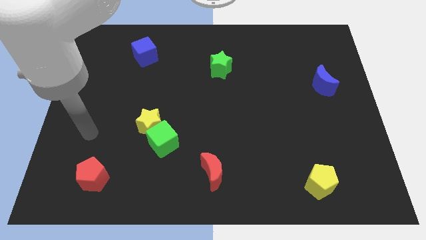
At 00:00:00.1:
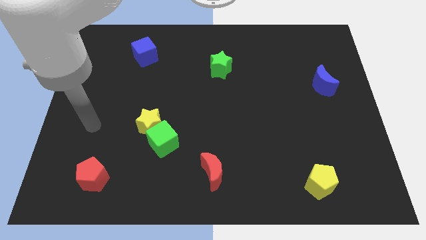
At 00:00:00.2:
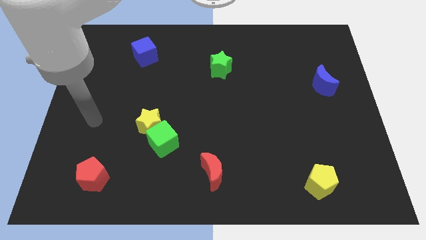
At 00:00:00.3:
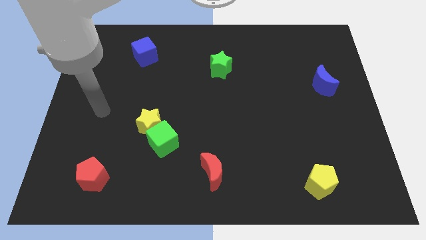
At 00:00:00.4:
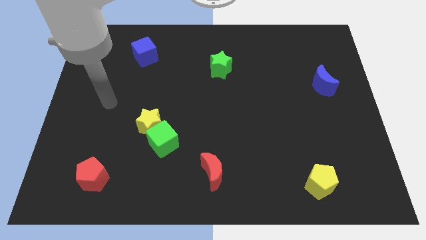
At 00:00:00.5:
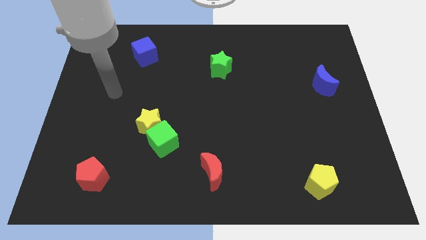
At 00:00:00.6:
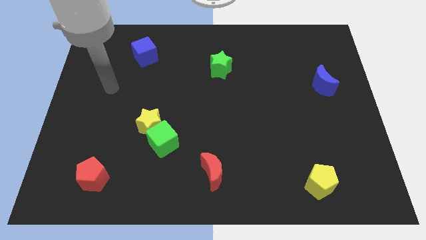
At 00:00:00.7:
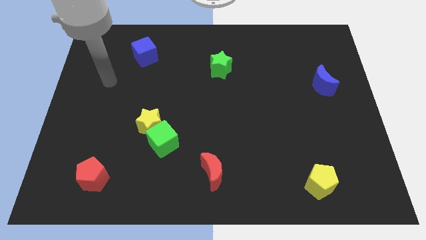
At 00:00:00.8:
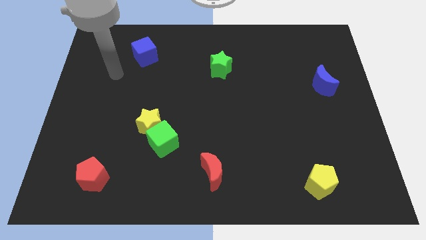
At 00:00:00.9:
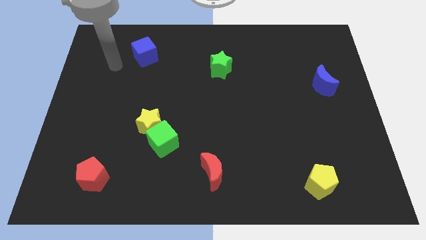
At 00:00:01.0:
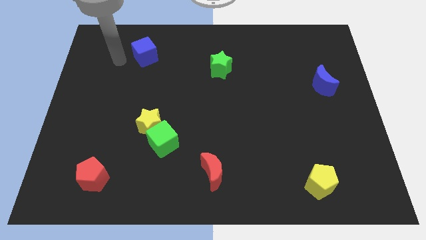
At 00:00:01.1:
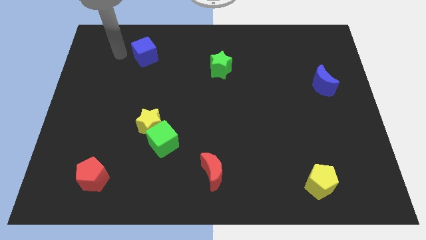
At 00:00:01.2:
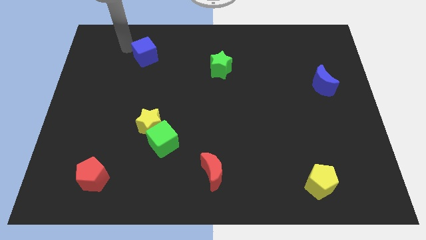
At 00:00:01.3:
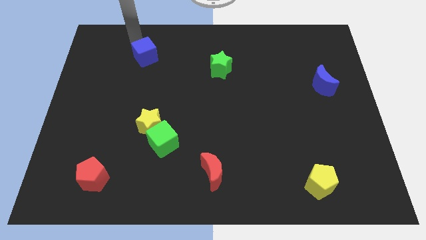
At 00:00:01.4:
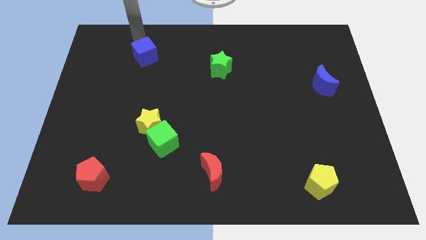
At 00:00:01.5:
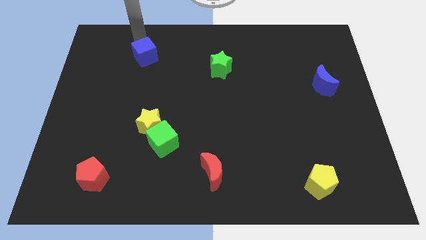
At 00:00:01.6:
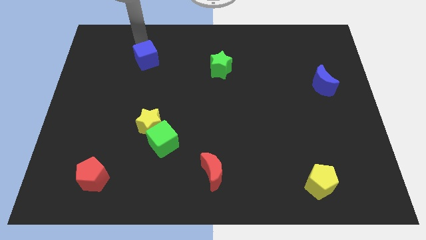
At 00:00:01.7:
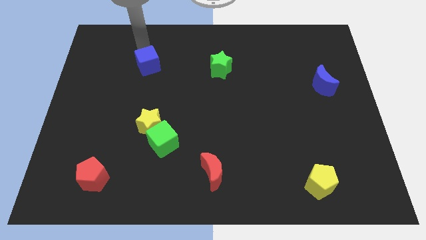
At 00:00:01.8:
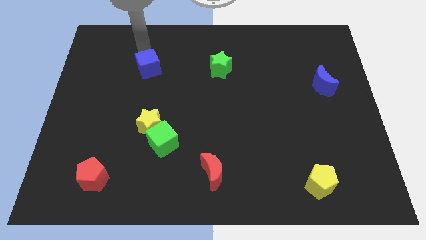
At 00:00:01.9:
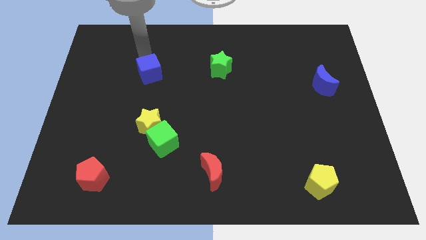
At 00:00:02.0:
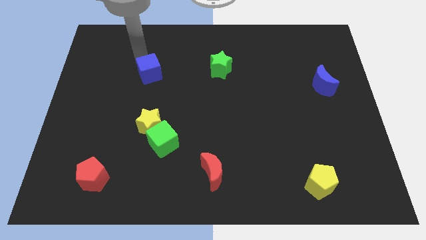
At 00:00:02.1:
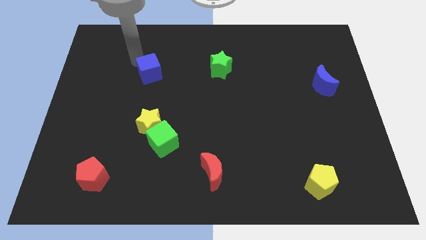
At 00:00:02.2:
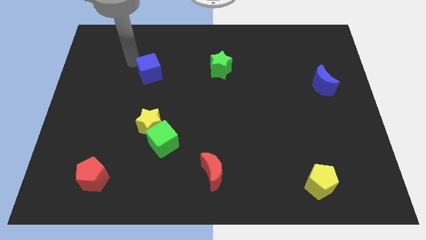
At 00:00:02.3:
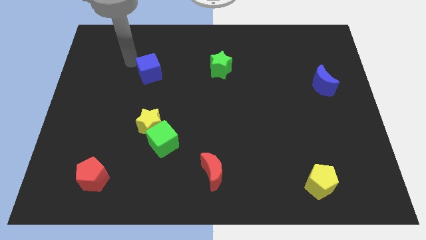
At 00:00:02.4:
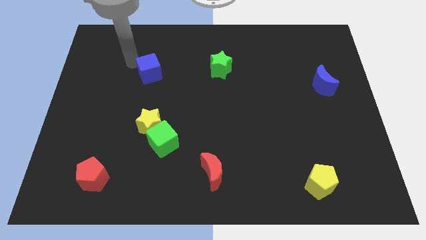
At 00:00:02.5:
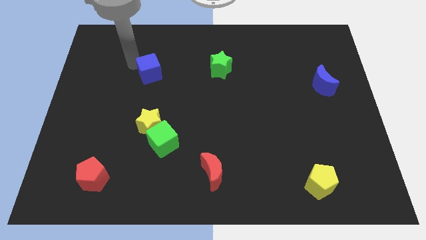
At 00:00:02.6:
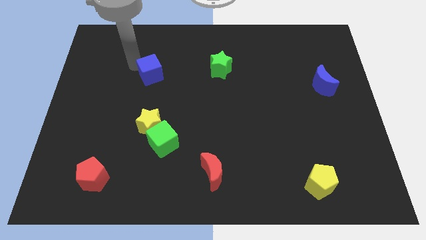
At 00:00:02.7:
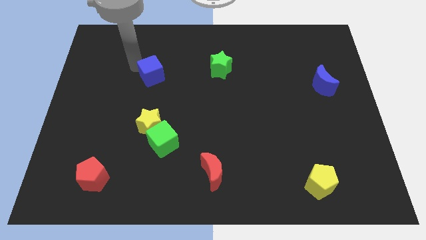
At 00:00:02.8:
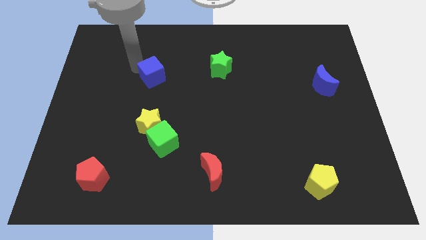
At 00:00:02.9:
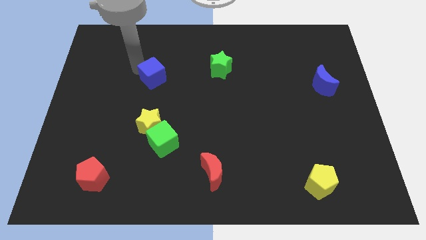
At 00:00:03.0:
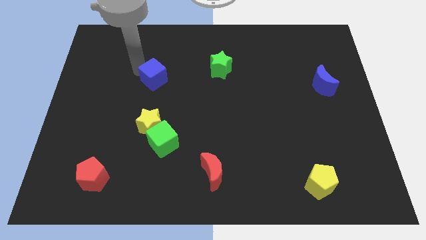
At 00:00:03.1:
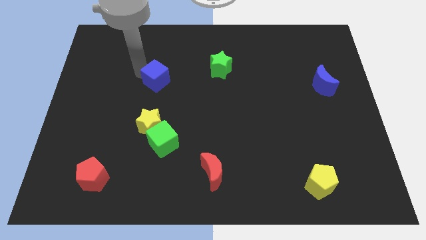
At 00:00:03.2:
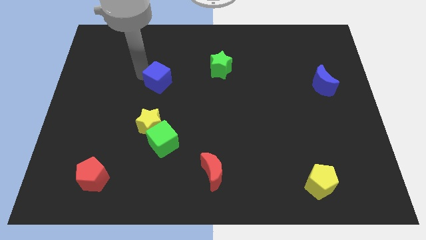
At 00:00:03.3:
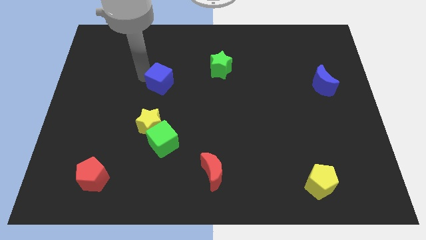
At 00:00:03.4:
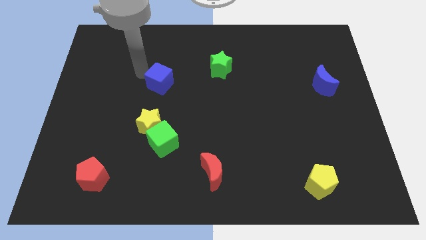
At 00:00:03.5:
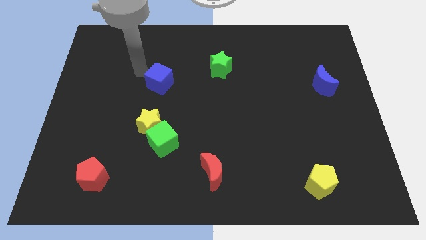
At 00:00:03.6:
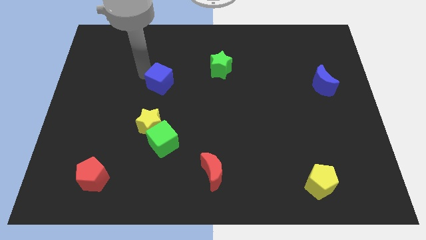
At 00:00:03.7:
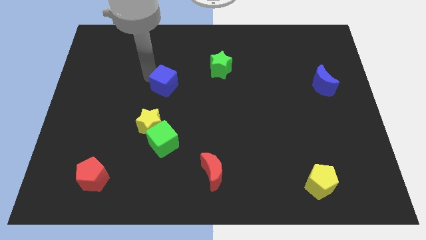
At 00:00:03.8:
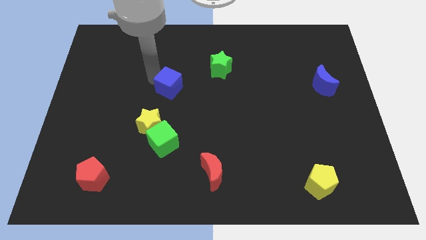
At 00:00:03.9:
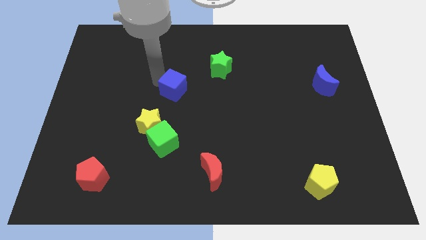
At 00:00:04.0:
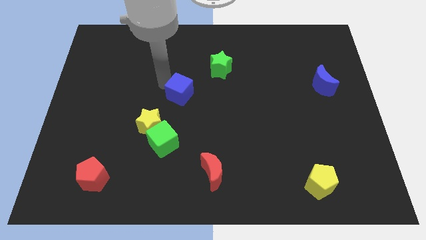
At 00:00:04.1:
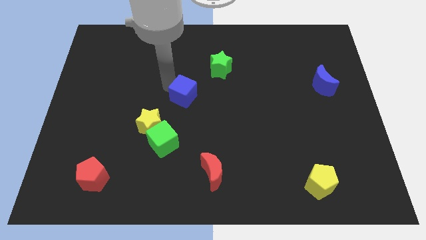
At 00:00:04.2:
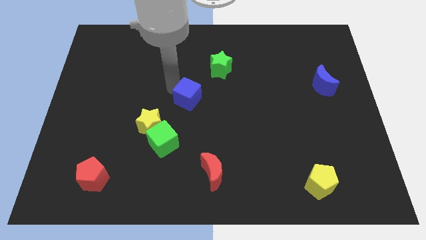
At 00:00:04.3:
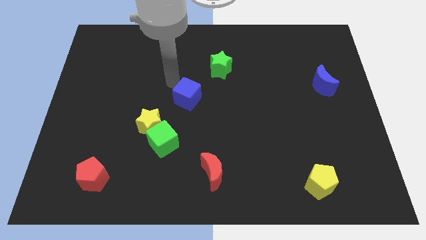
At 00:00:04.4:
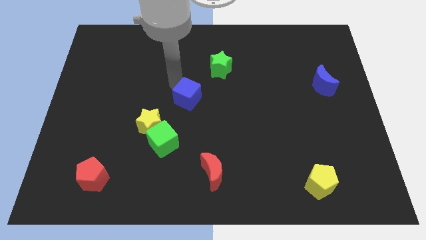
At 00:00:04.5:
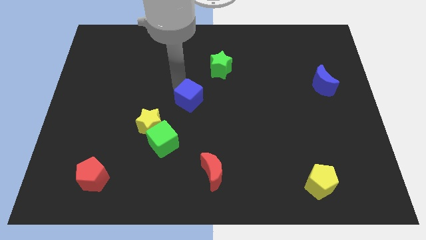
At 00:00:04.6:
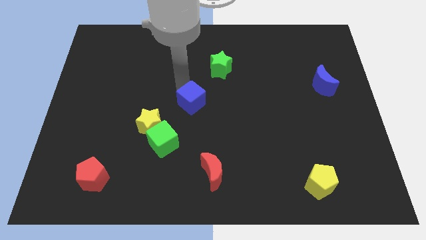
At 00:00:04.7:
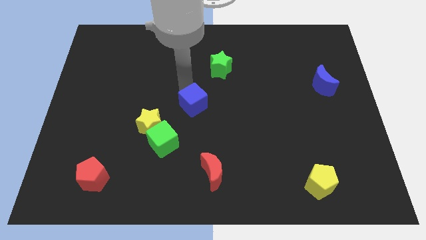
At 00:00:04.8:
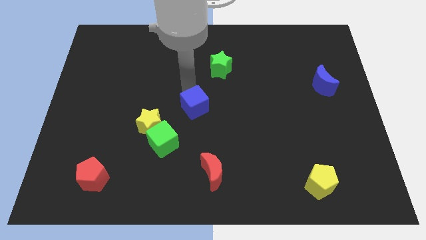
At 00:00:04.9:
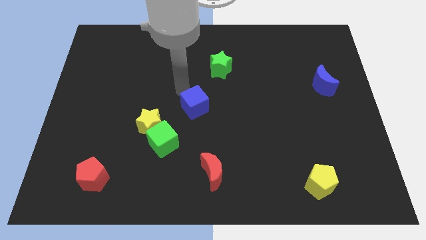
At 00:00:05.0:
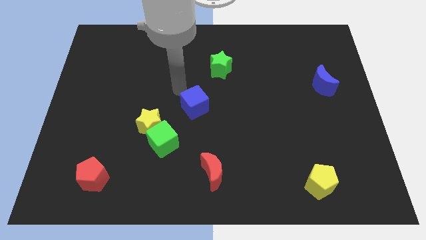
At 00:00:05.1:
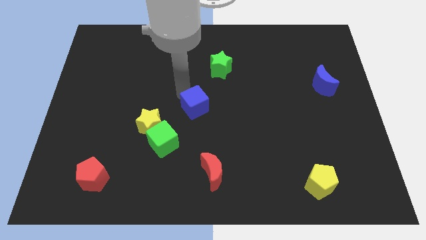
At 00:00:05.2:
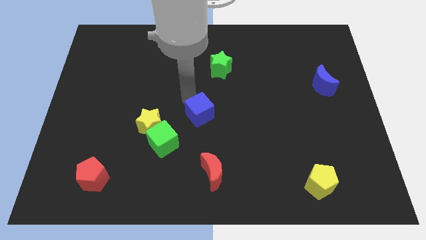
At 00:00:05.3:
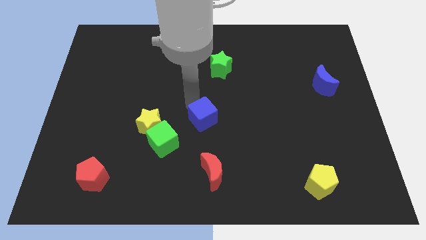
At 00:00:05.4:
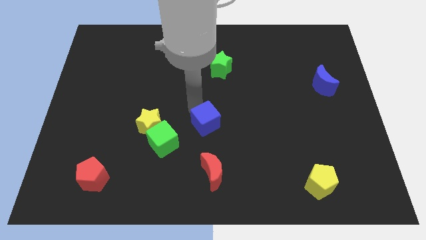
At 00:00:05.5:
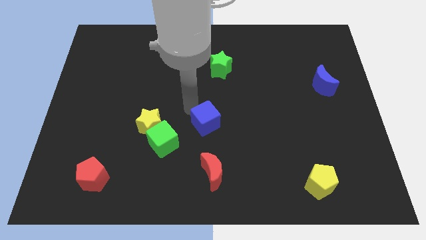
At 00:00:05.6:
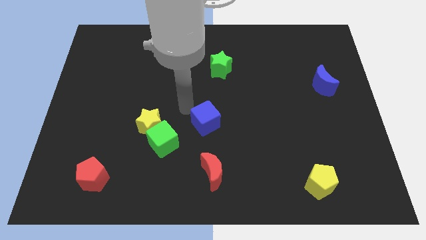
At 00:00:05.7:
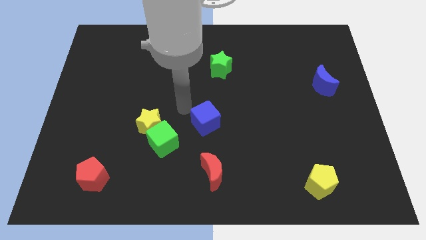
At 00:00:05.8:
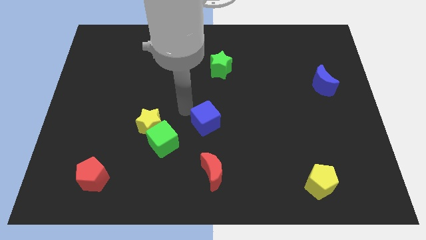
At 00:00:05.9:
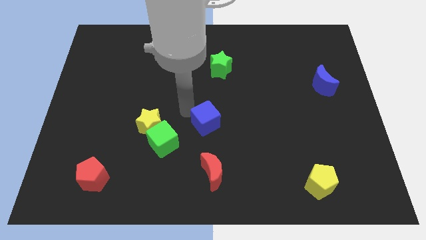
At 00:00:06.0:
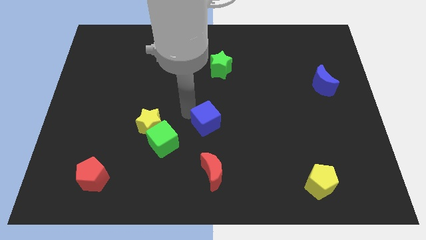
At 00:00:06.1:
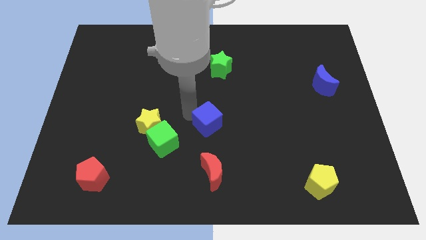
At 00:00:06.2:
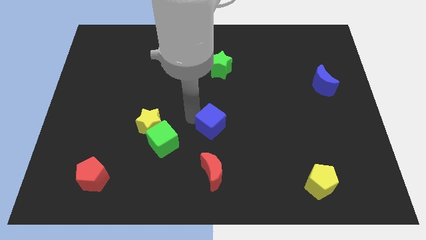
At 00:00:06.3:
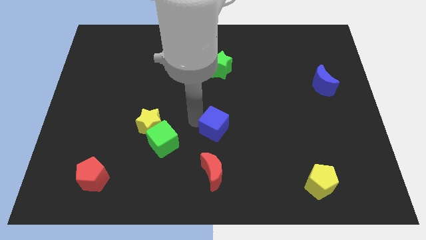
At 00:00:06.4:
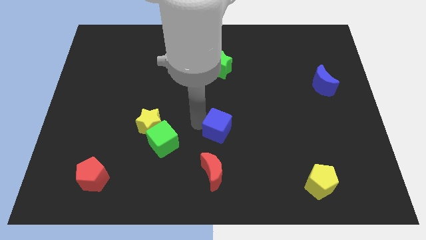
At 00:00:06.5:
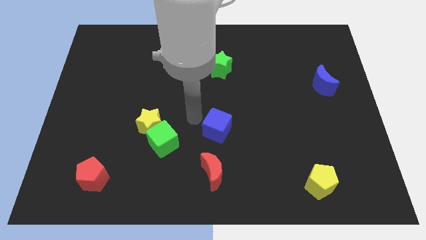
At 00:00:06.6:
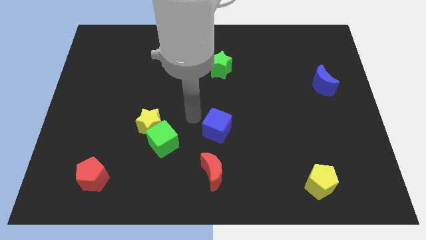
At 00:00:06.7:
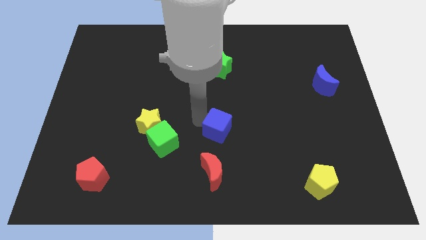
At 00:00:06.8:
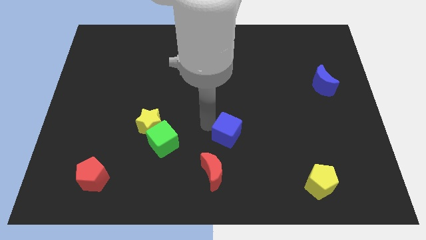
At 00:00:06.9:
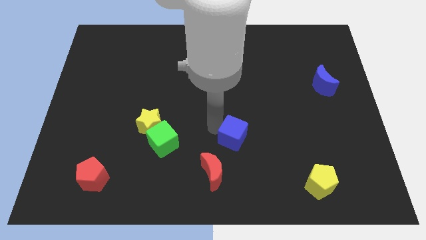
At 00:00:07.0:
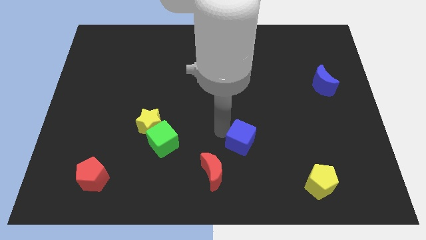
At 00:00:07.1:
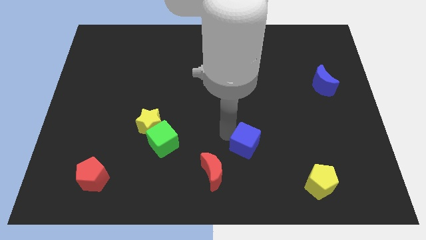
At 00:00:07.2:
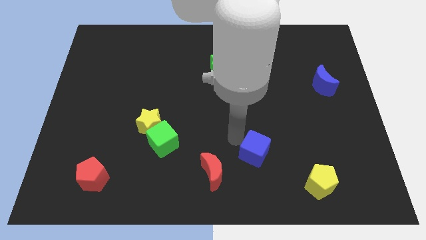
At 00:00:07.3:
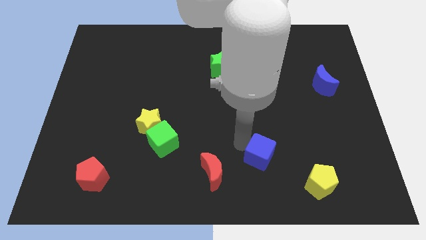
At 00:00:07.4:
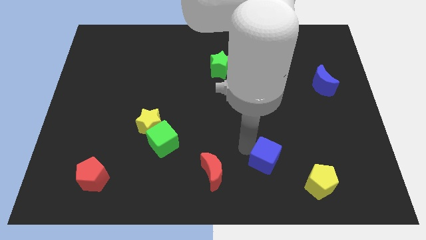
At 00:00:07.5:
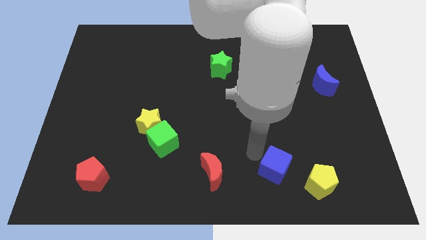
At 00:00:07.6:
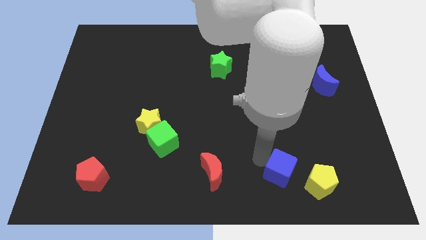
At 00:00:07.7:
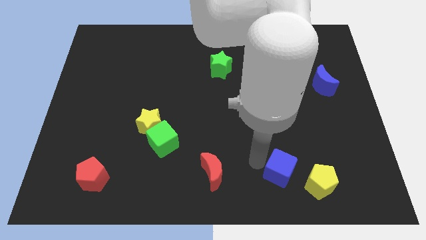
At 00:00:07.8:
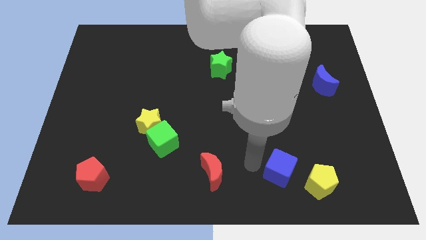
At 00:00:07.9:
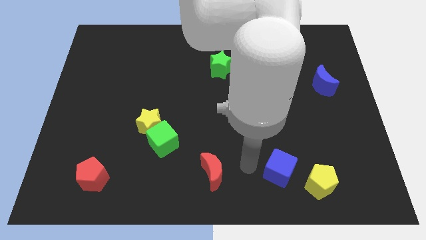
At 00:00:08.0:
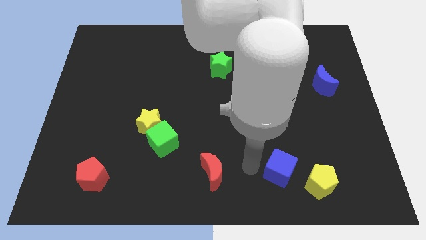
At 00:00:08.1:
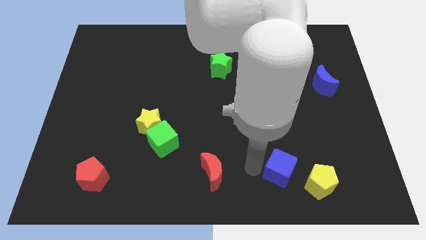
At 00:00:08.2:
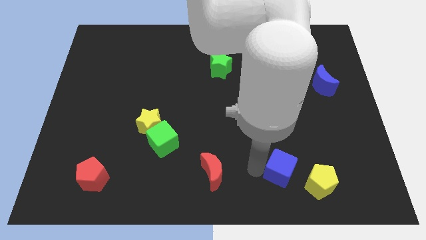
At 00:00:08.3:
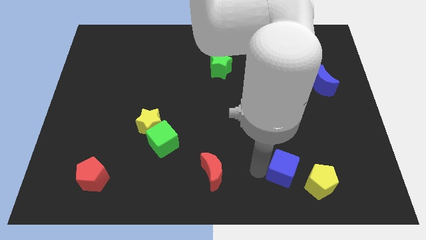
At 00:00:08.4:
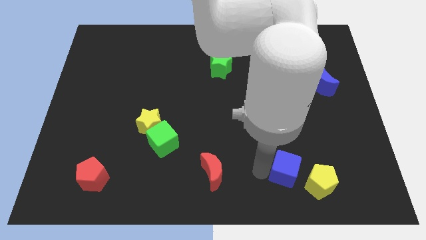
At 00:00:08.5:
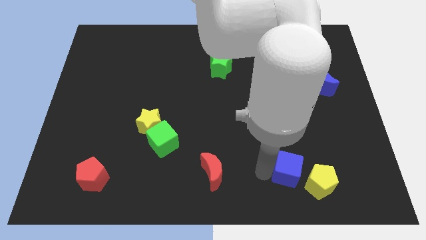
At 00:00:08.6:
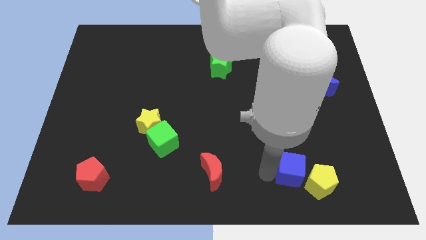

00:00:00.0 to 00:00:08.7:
slide the blue cube close to the yellow pentagon
